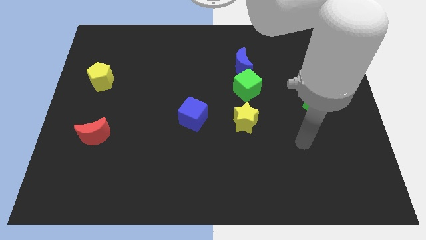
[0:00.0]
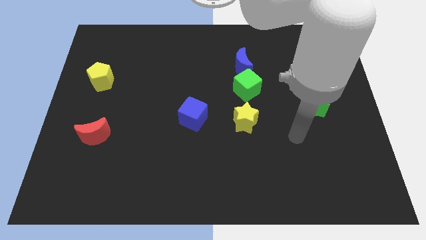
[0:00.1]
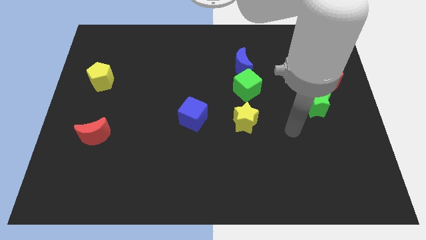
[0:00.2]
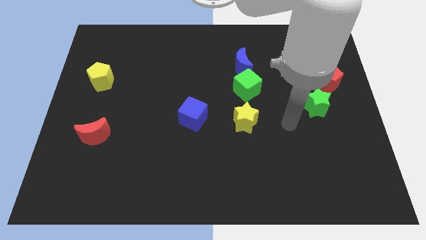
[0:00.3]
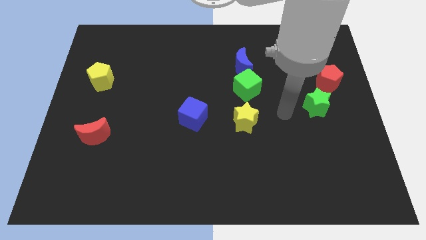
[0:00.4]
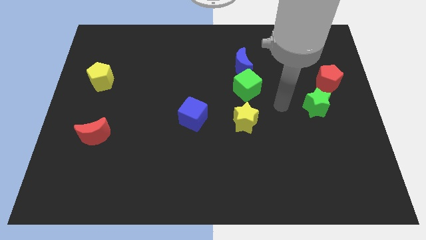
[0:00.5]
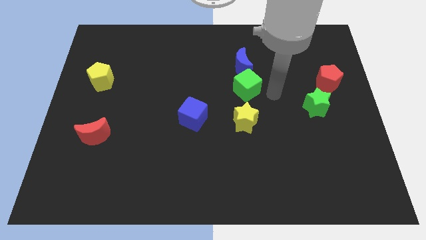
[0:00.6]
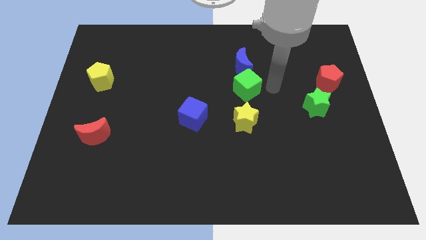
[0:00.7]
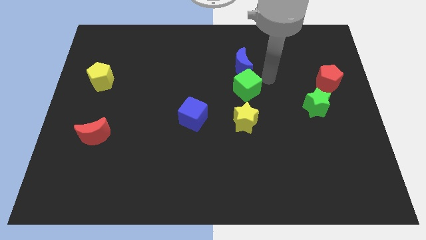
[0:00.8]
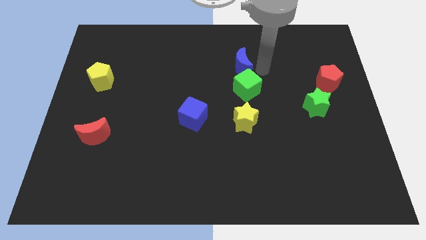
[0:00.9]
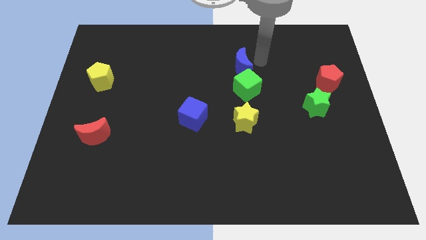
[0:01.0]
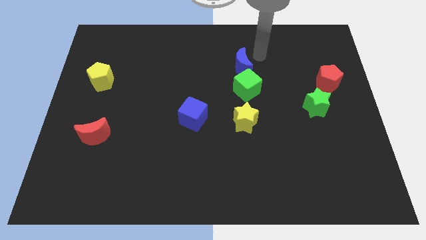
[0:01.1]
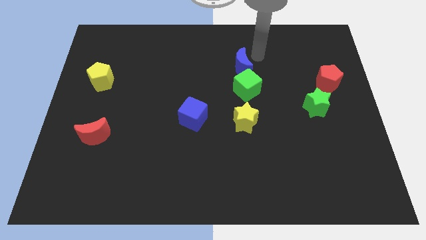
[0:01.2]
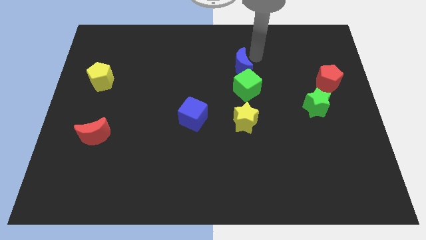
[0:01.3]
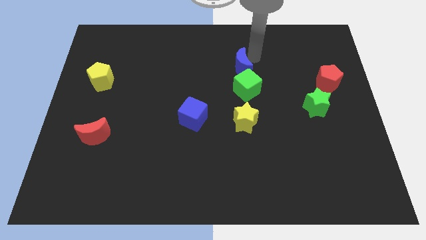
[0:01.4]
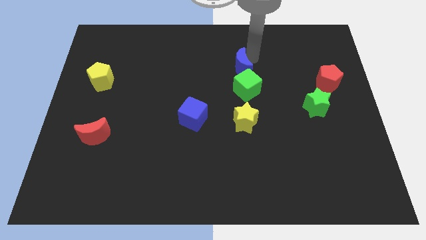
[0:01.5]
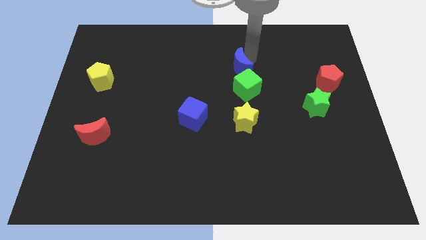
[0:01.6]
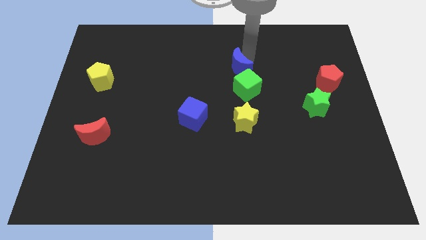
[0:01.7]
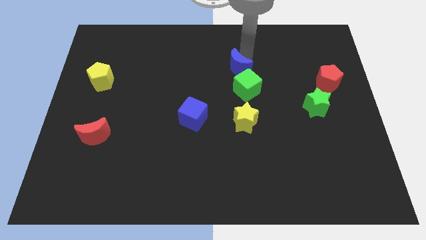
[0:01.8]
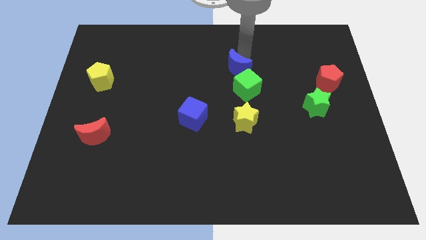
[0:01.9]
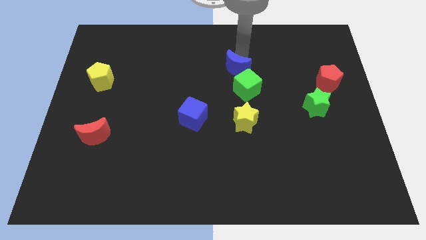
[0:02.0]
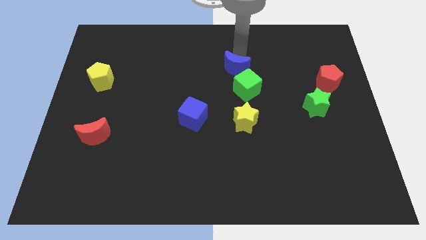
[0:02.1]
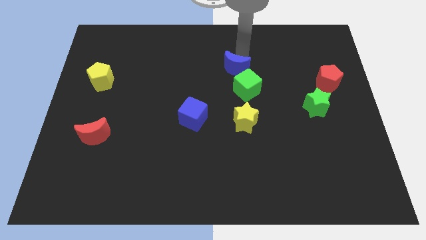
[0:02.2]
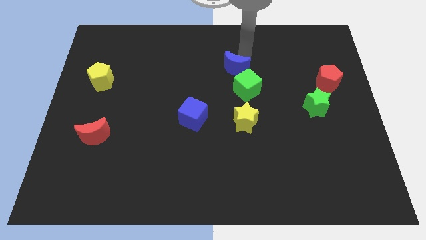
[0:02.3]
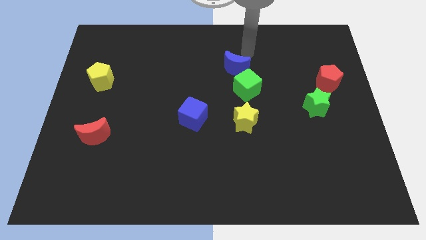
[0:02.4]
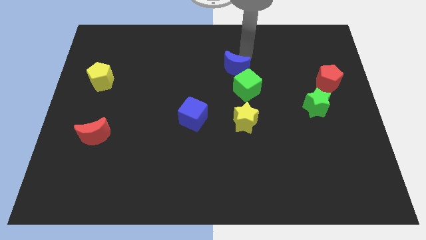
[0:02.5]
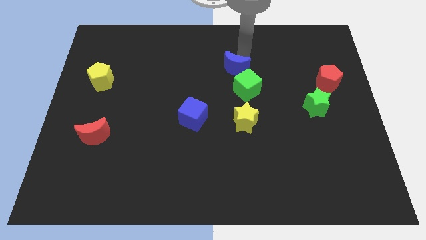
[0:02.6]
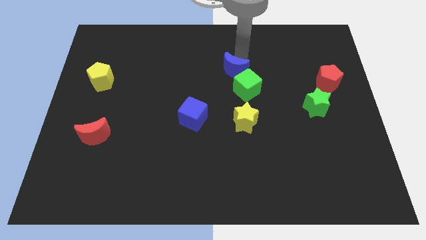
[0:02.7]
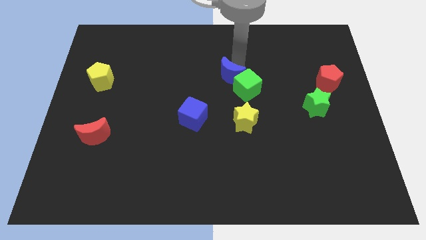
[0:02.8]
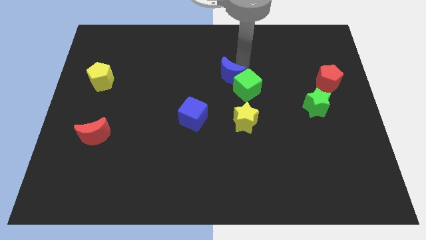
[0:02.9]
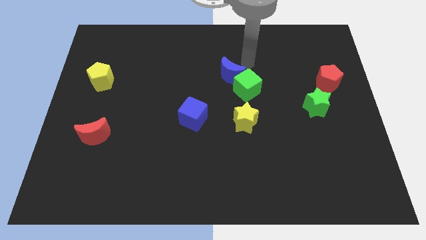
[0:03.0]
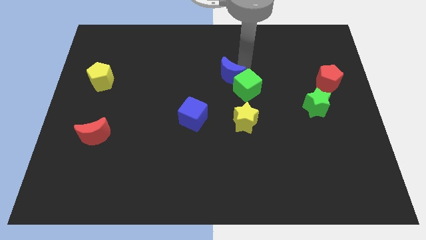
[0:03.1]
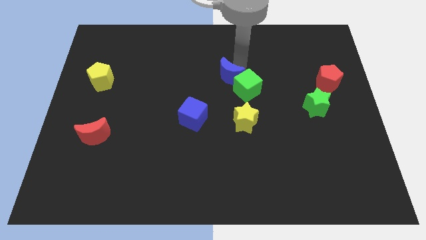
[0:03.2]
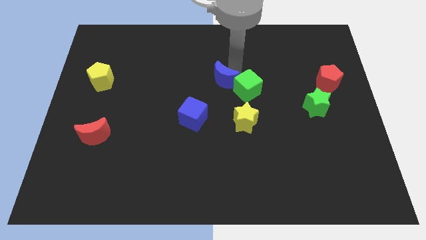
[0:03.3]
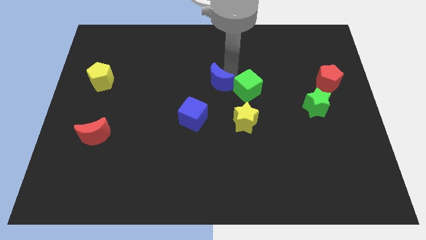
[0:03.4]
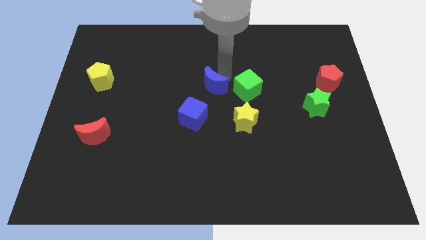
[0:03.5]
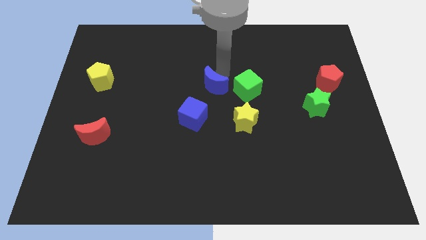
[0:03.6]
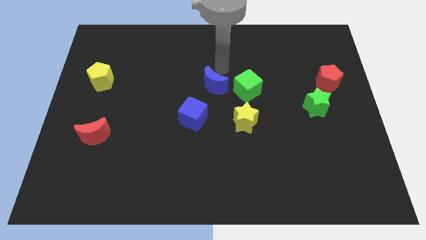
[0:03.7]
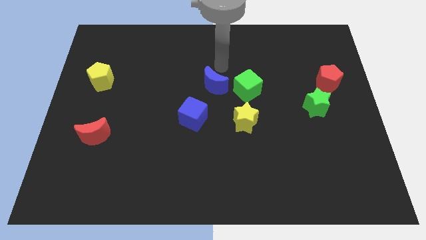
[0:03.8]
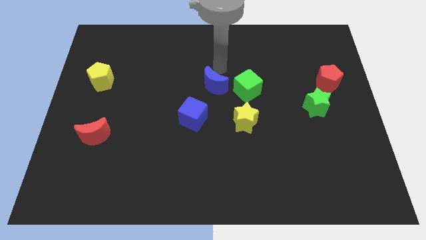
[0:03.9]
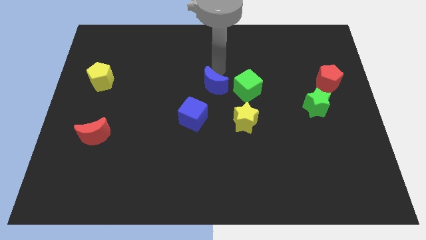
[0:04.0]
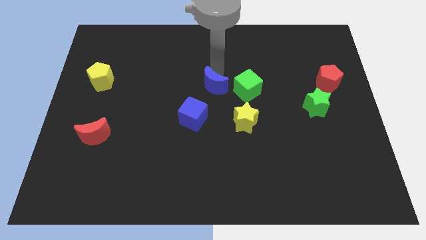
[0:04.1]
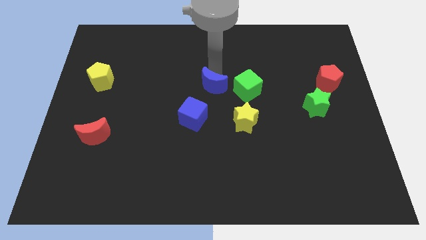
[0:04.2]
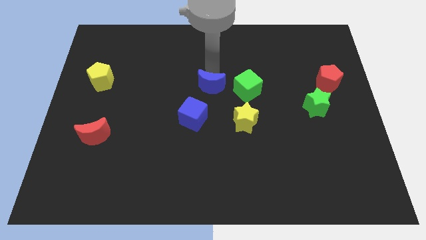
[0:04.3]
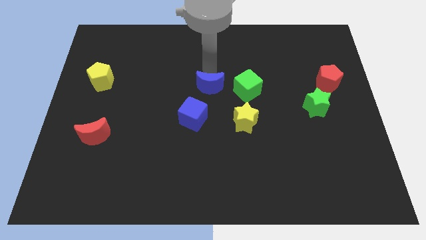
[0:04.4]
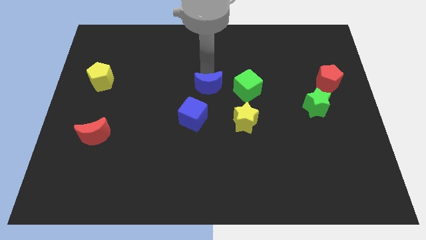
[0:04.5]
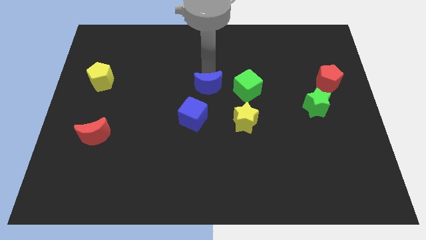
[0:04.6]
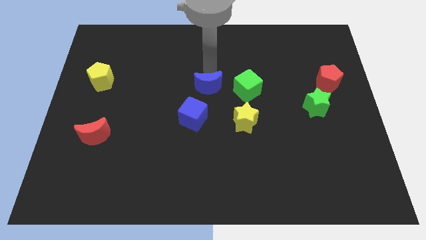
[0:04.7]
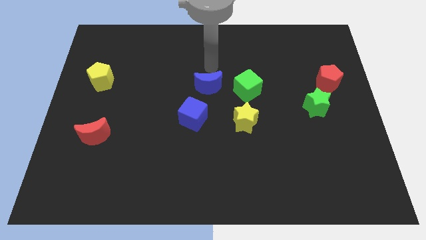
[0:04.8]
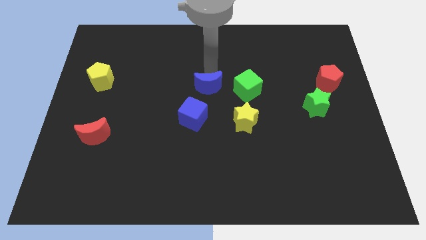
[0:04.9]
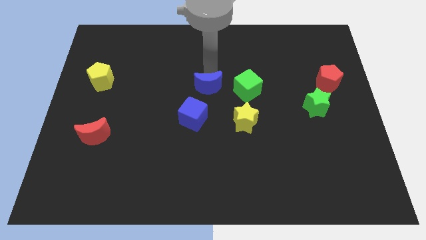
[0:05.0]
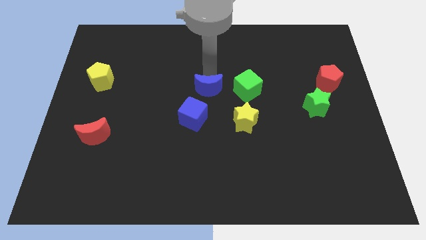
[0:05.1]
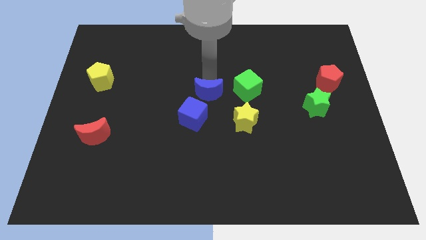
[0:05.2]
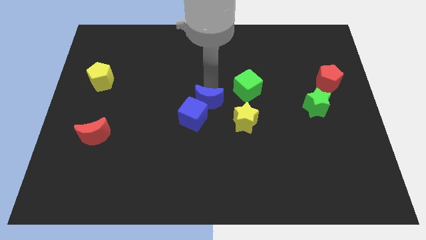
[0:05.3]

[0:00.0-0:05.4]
put the blue moon close to the blue cube

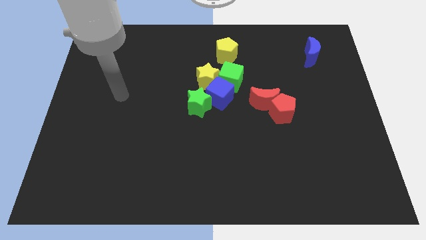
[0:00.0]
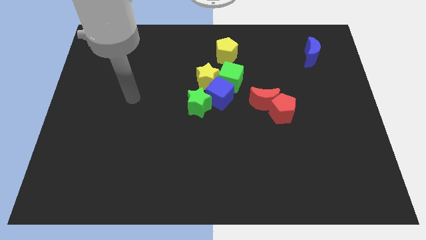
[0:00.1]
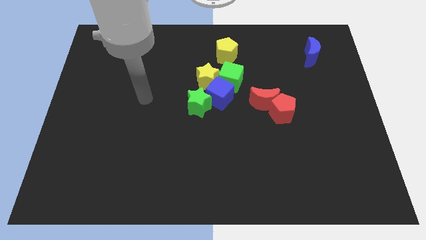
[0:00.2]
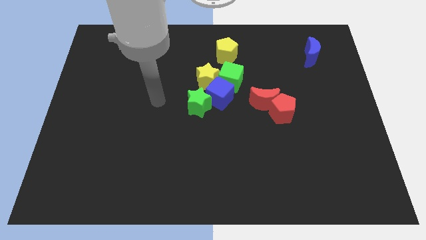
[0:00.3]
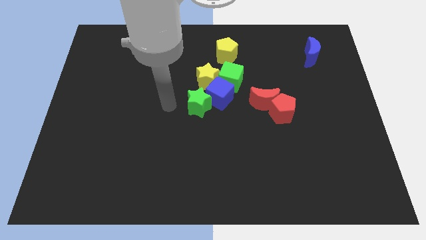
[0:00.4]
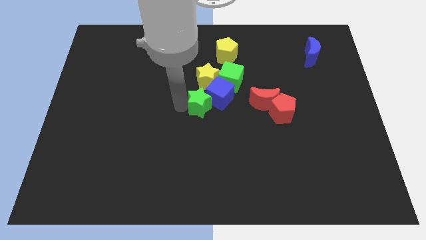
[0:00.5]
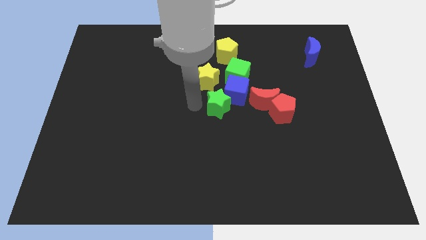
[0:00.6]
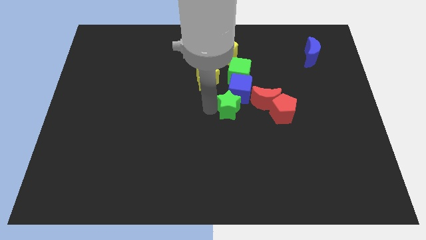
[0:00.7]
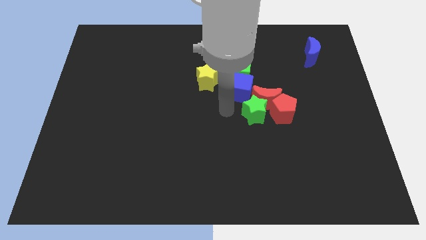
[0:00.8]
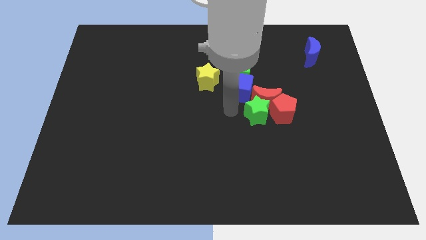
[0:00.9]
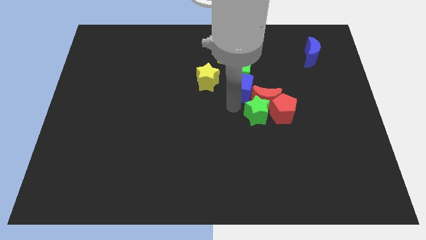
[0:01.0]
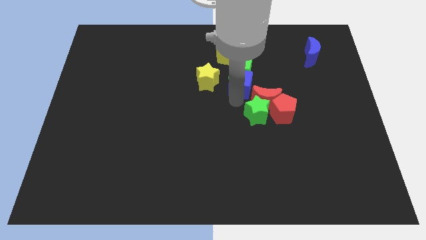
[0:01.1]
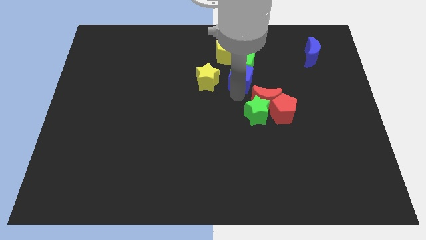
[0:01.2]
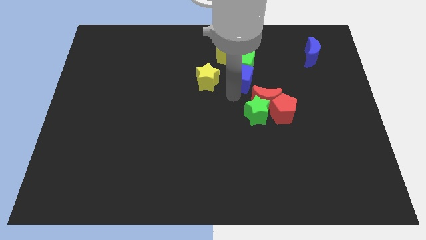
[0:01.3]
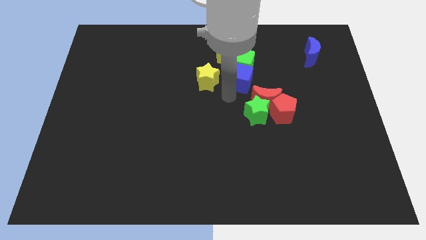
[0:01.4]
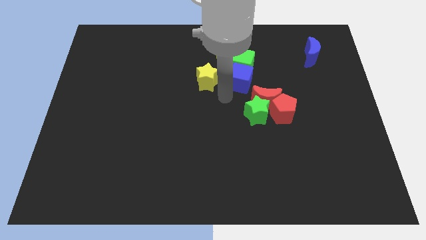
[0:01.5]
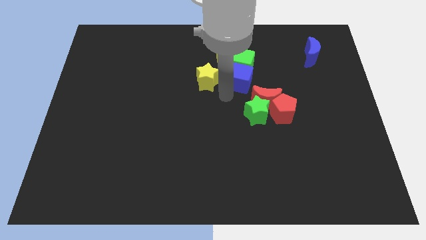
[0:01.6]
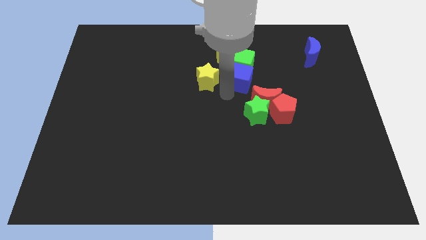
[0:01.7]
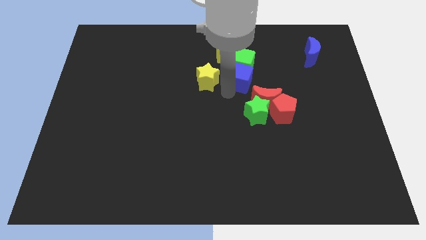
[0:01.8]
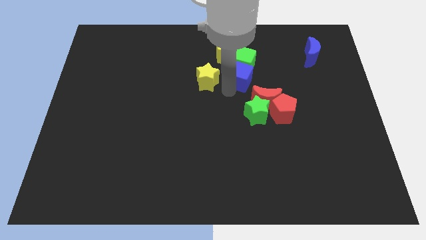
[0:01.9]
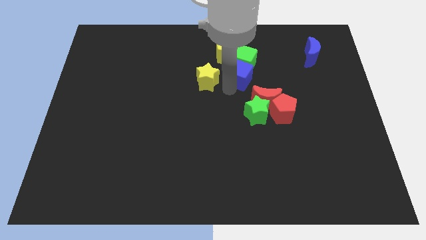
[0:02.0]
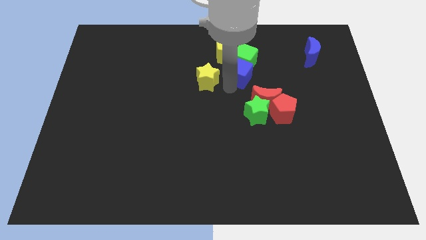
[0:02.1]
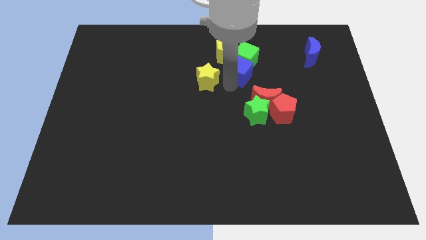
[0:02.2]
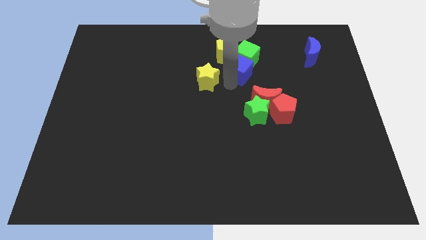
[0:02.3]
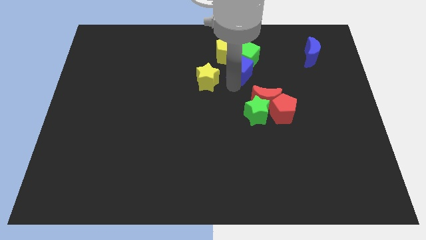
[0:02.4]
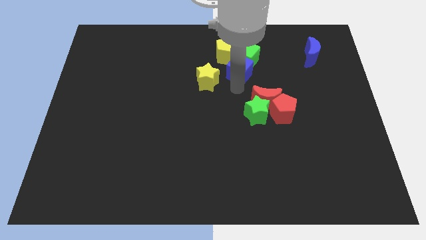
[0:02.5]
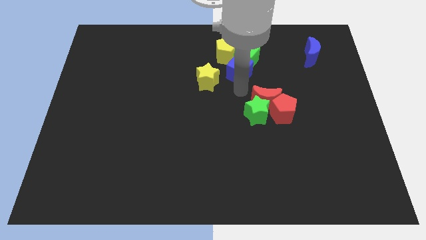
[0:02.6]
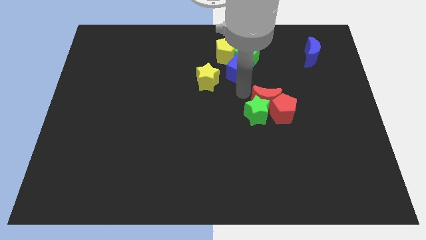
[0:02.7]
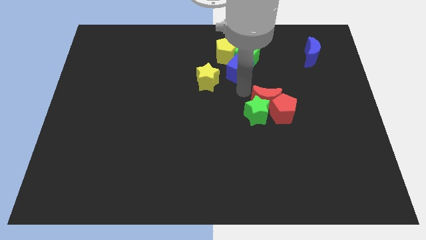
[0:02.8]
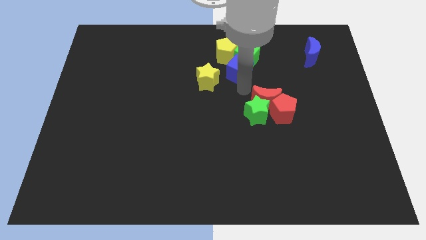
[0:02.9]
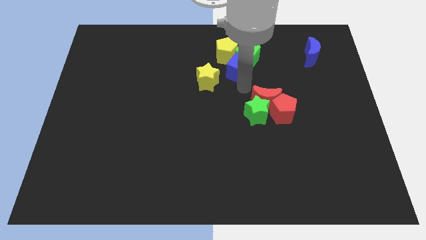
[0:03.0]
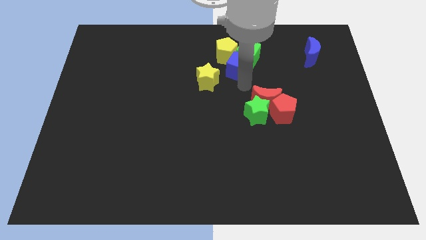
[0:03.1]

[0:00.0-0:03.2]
push the blue cube close to the yellow pentagon

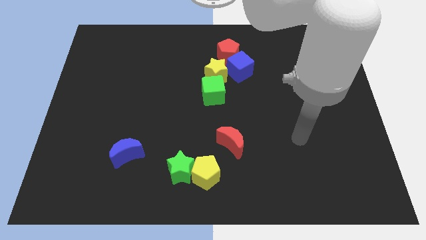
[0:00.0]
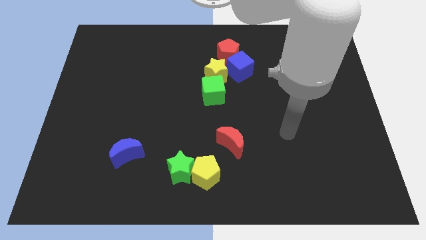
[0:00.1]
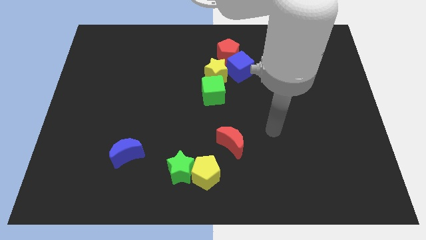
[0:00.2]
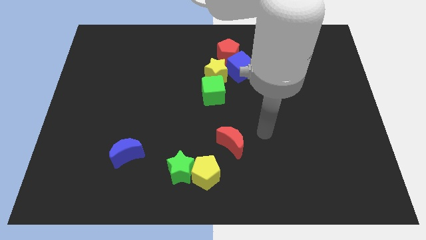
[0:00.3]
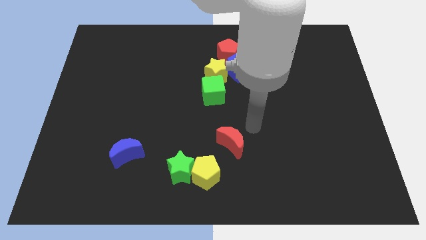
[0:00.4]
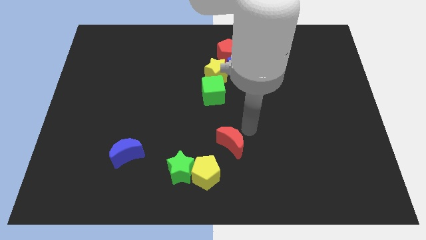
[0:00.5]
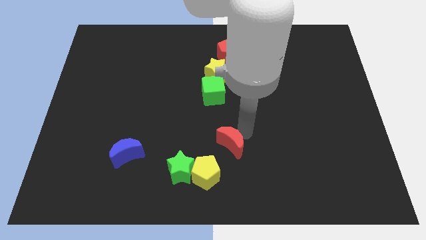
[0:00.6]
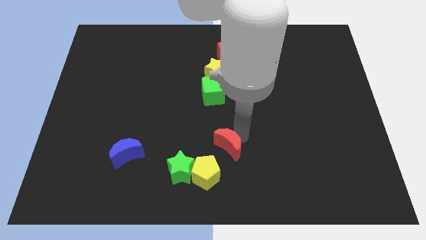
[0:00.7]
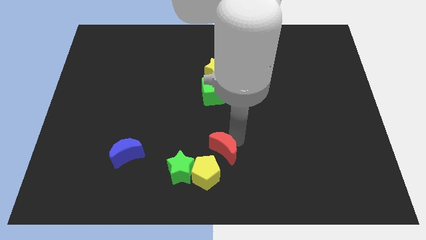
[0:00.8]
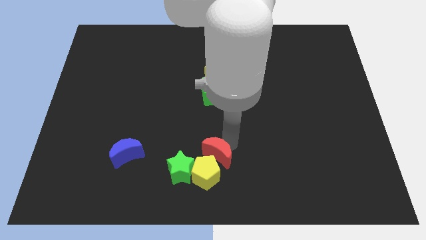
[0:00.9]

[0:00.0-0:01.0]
push the red moon to the yellow pentagon
